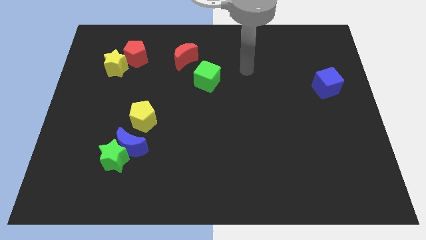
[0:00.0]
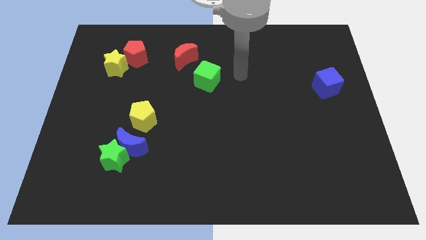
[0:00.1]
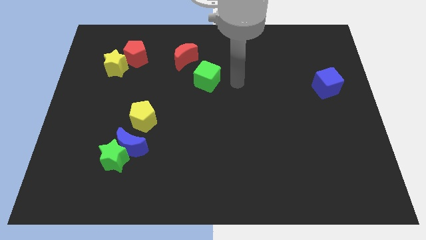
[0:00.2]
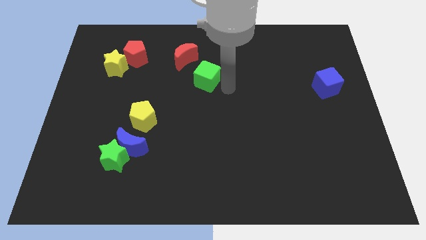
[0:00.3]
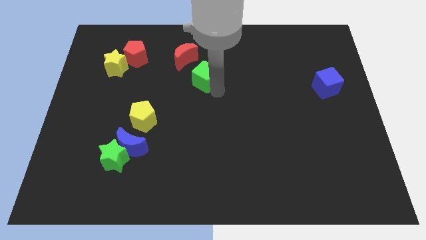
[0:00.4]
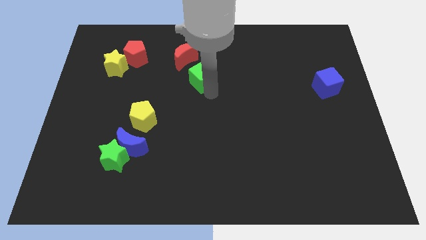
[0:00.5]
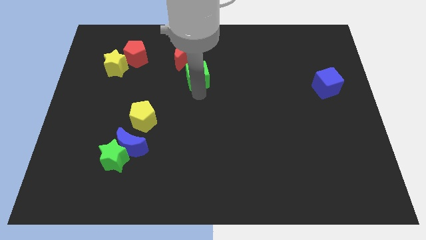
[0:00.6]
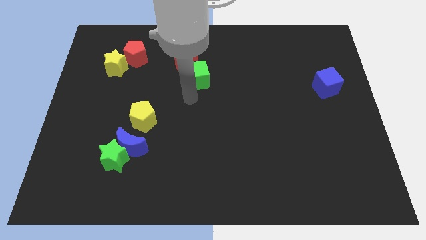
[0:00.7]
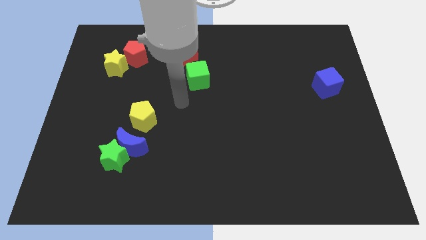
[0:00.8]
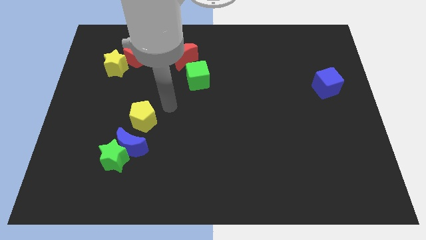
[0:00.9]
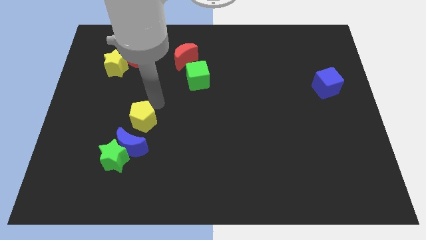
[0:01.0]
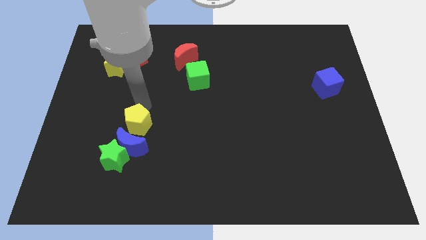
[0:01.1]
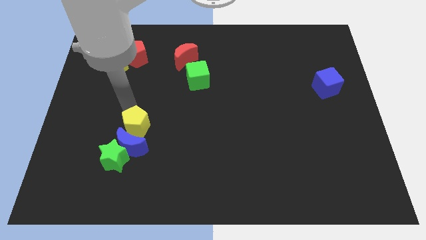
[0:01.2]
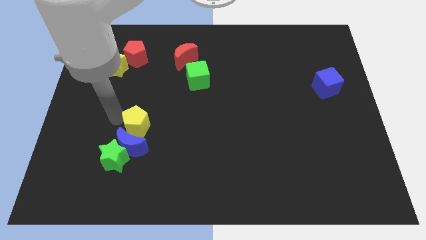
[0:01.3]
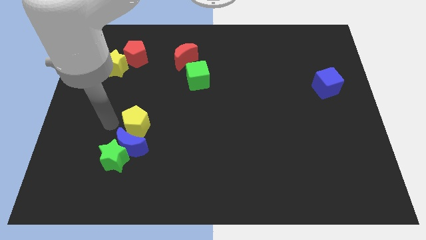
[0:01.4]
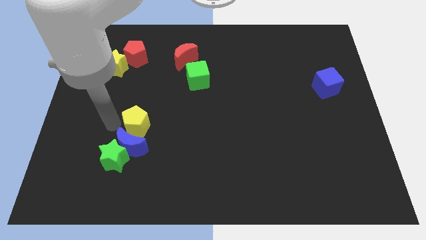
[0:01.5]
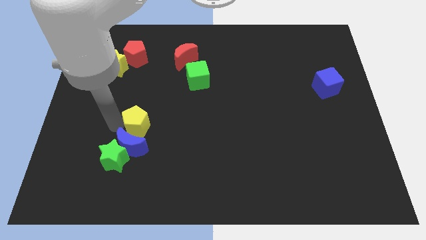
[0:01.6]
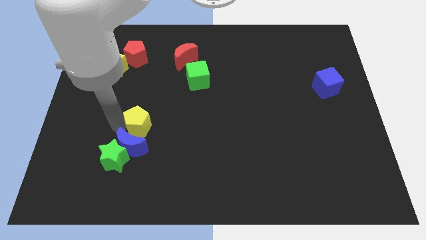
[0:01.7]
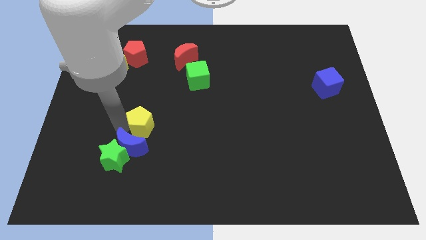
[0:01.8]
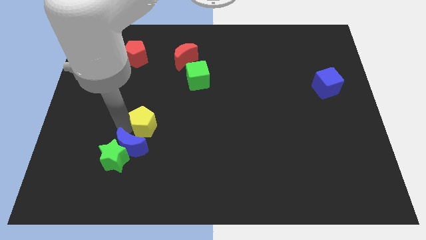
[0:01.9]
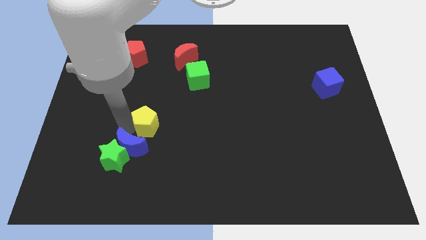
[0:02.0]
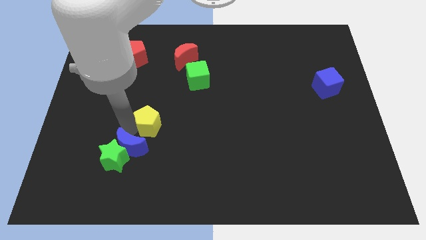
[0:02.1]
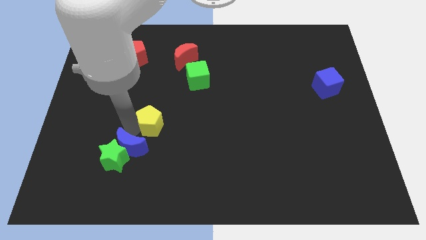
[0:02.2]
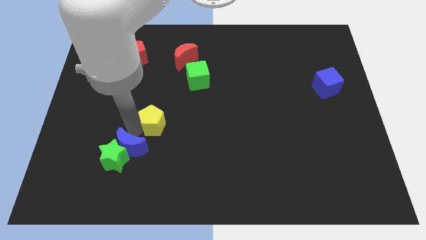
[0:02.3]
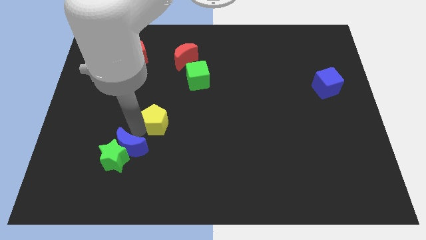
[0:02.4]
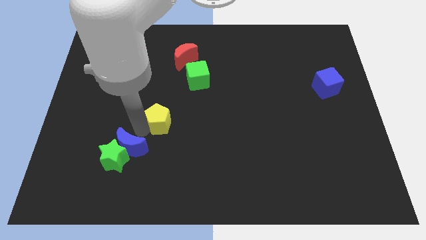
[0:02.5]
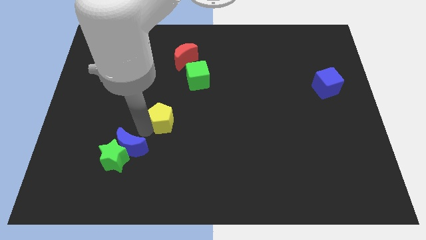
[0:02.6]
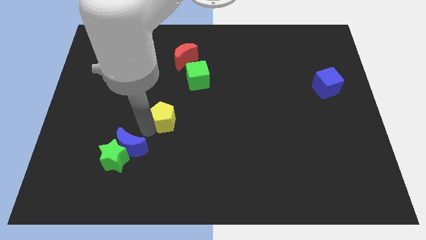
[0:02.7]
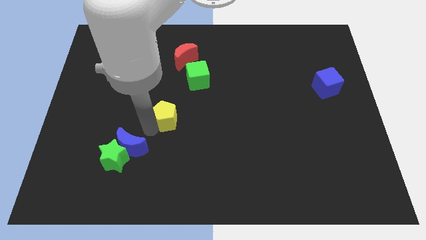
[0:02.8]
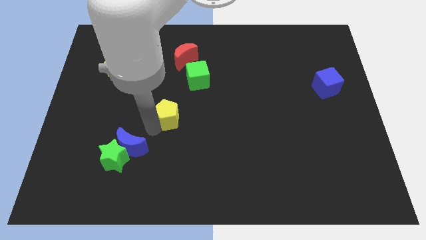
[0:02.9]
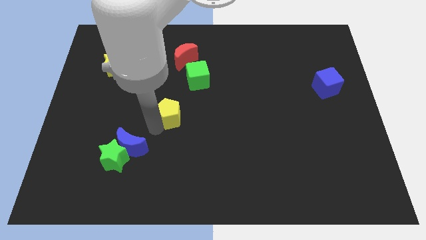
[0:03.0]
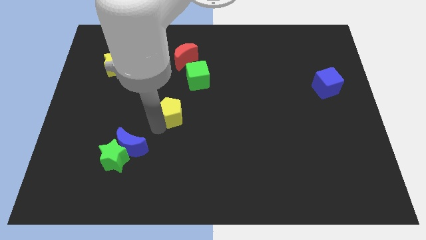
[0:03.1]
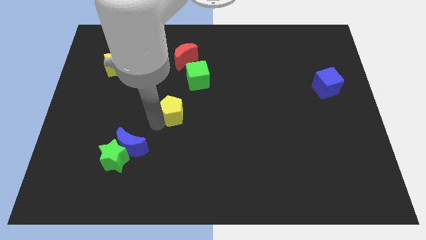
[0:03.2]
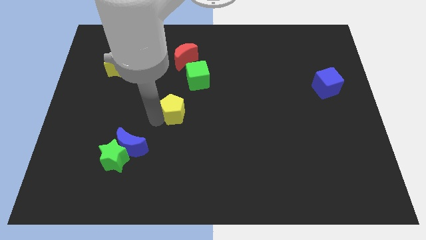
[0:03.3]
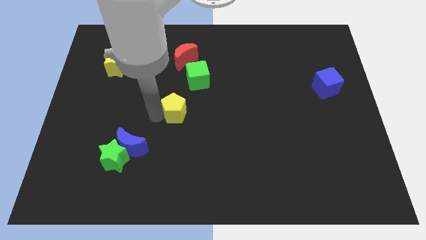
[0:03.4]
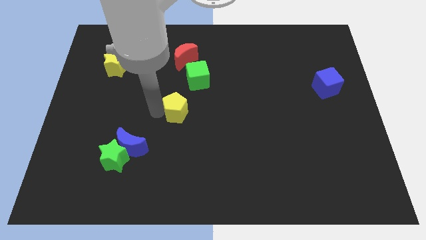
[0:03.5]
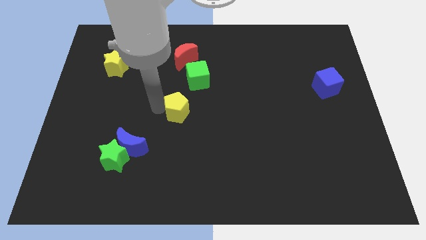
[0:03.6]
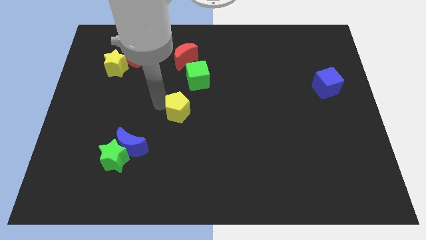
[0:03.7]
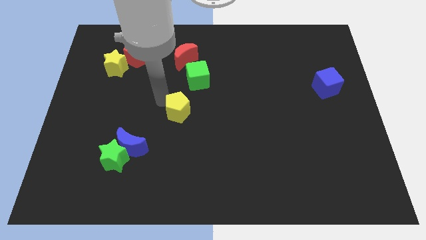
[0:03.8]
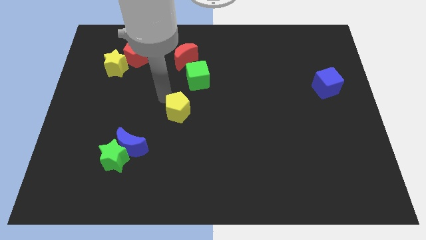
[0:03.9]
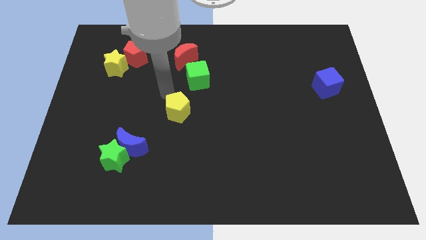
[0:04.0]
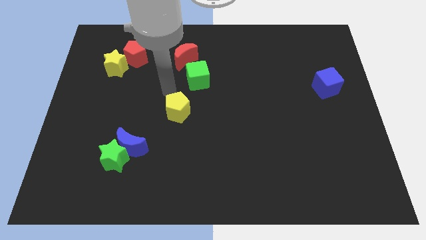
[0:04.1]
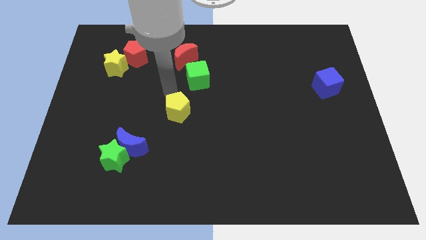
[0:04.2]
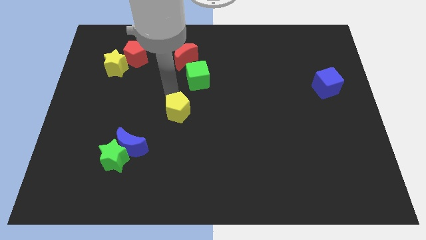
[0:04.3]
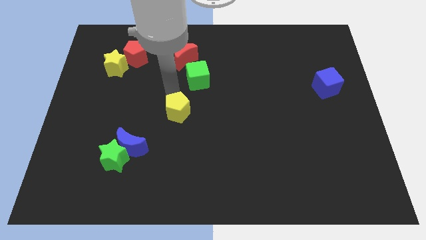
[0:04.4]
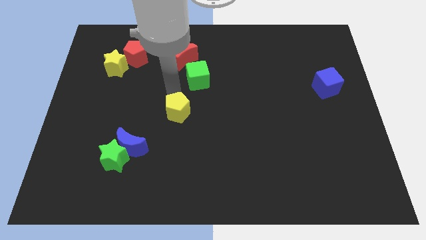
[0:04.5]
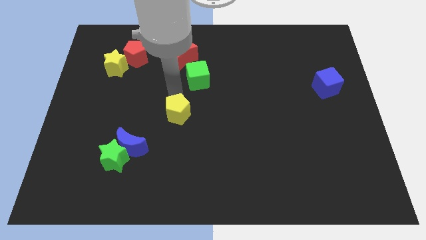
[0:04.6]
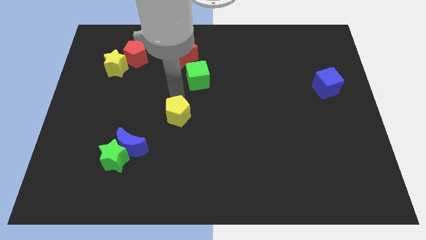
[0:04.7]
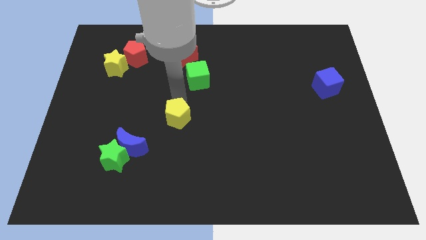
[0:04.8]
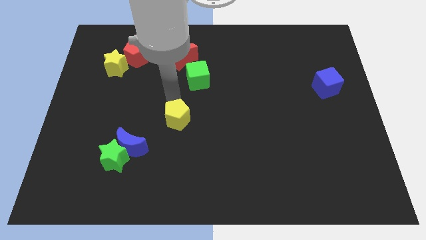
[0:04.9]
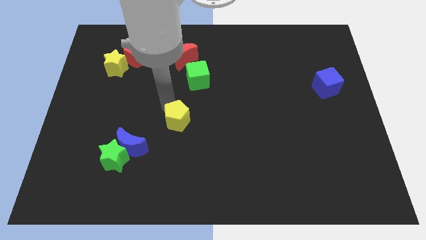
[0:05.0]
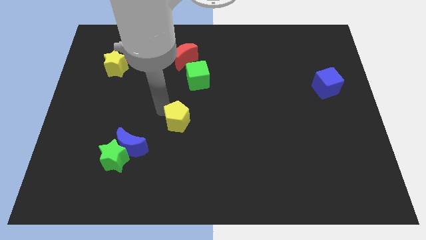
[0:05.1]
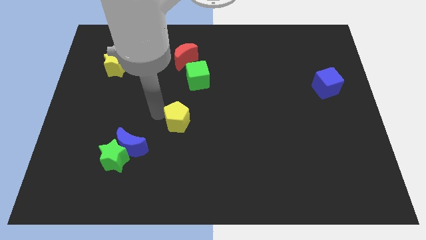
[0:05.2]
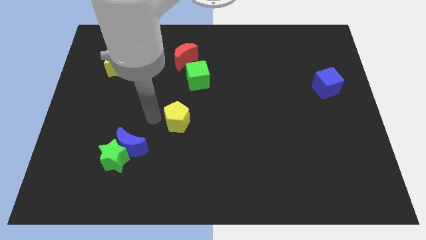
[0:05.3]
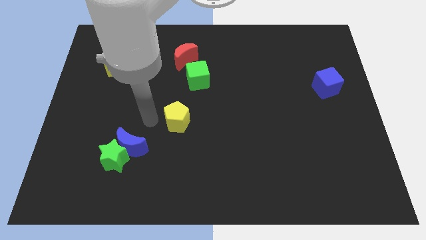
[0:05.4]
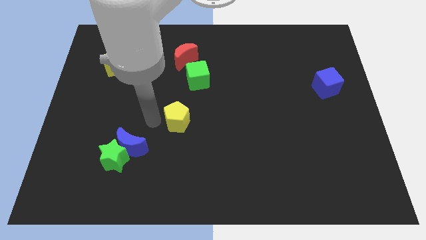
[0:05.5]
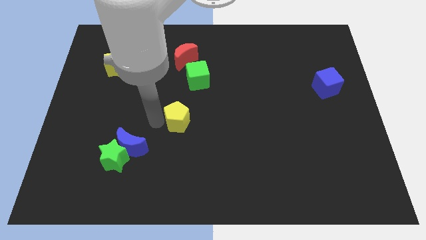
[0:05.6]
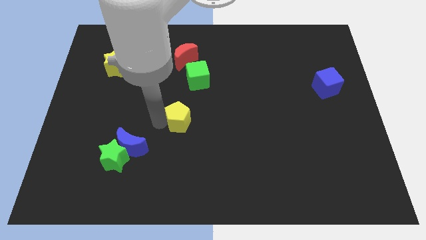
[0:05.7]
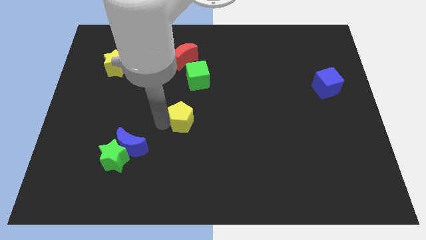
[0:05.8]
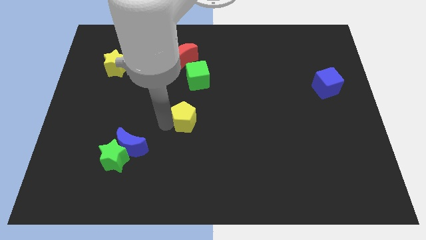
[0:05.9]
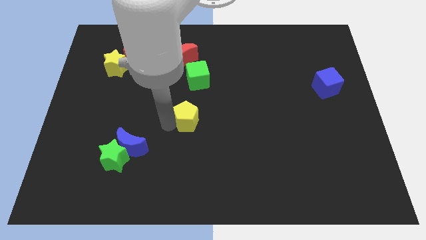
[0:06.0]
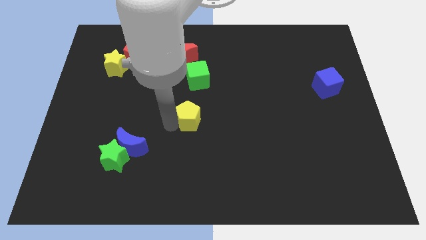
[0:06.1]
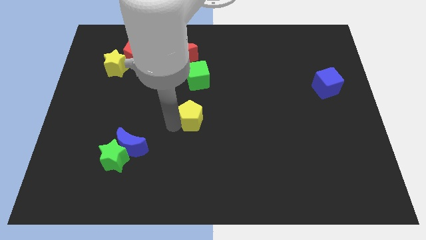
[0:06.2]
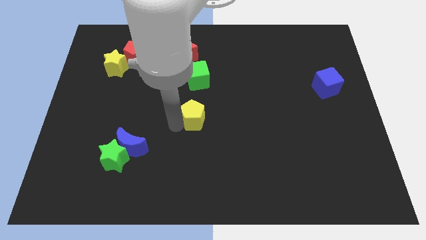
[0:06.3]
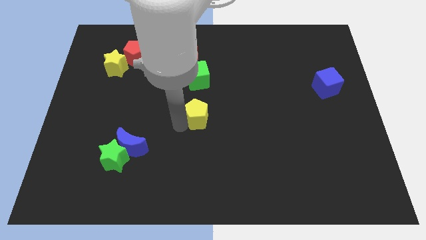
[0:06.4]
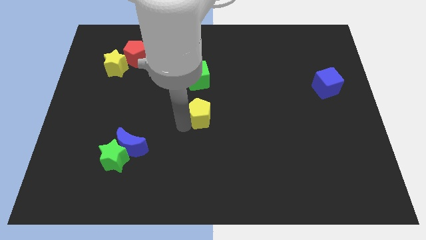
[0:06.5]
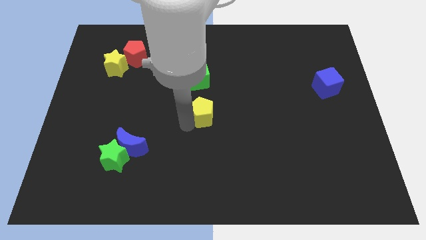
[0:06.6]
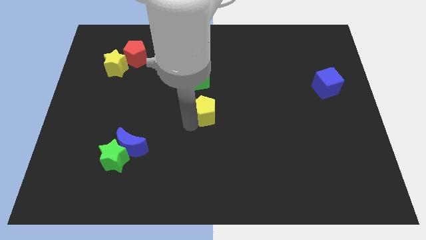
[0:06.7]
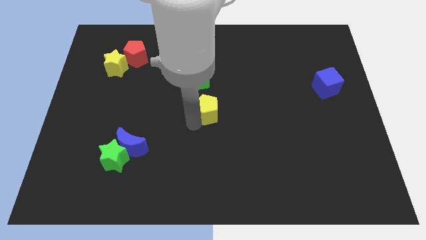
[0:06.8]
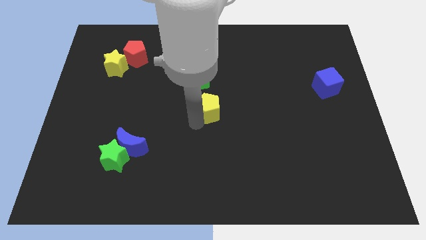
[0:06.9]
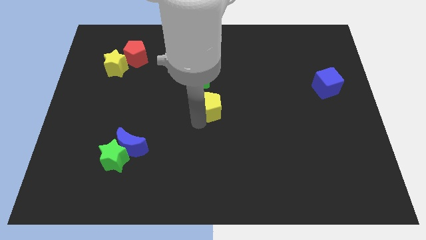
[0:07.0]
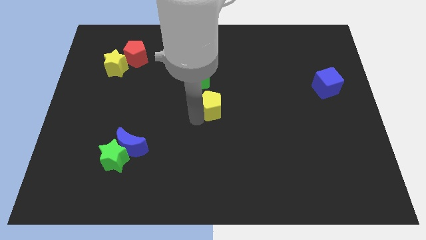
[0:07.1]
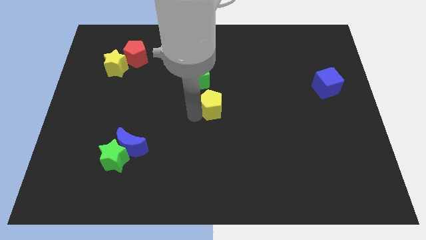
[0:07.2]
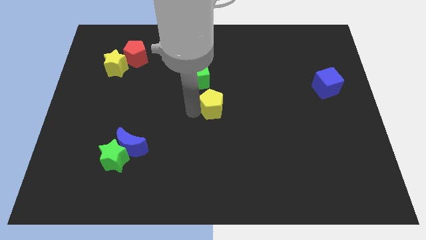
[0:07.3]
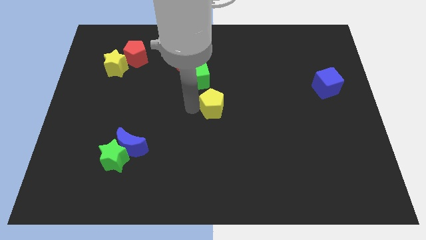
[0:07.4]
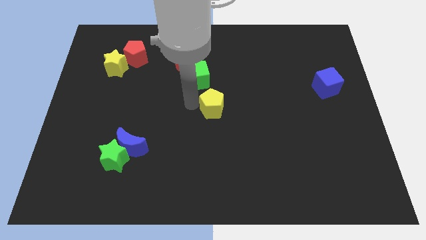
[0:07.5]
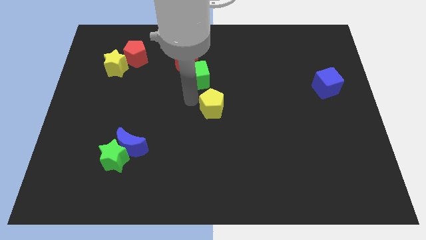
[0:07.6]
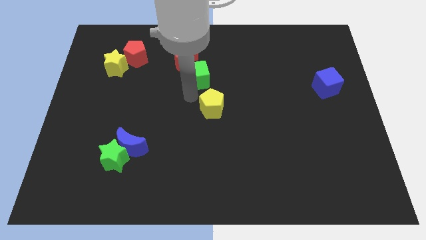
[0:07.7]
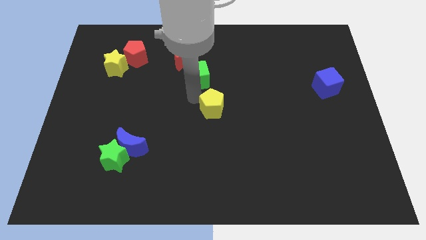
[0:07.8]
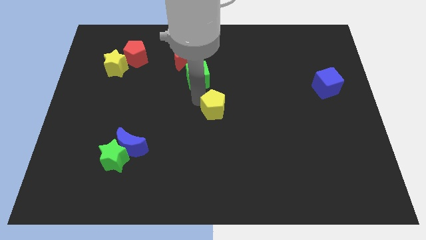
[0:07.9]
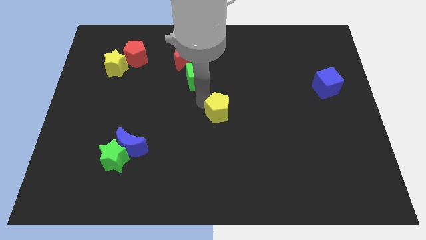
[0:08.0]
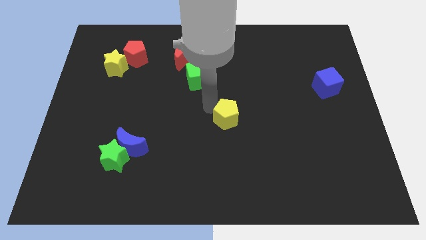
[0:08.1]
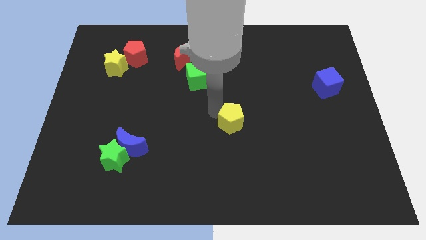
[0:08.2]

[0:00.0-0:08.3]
move the yellow pentagon right
